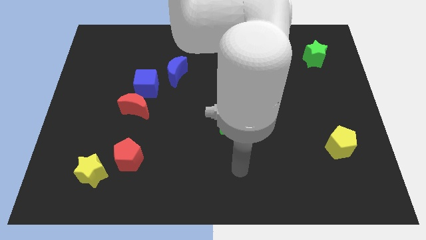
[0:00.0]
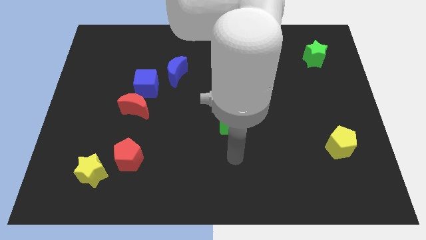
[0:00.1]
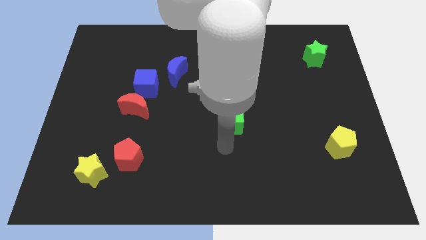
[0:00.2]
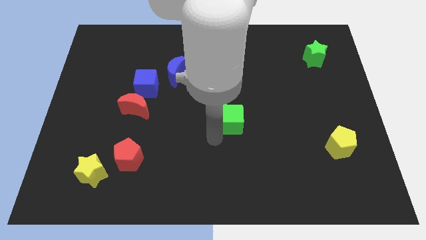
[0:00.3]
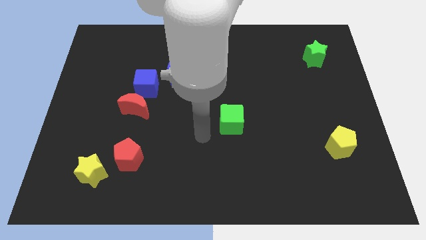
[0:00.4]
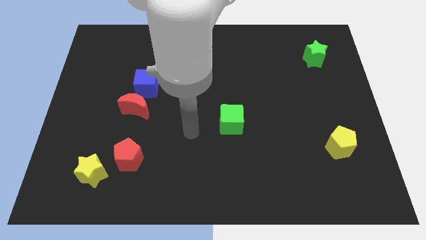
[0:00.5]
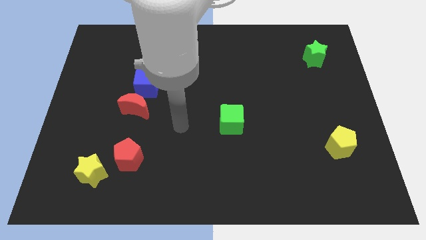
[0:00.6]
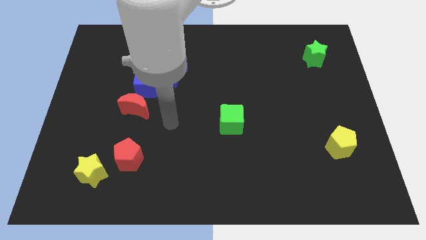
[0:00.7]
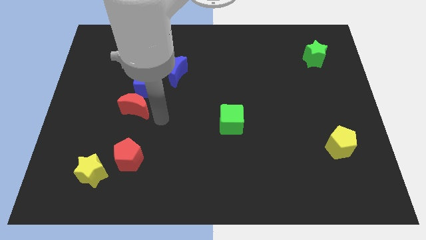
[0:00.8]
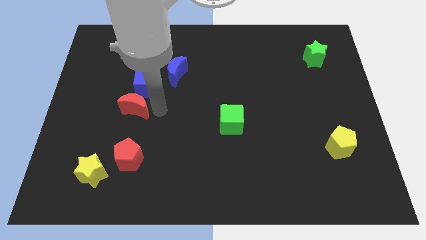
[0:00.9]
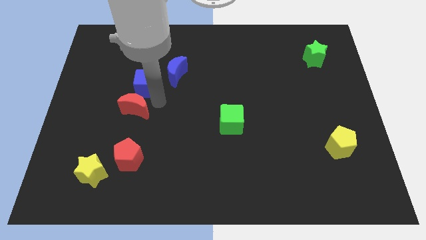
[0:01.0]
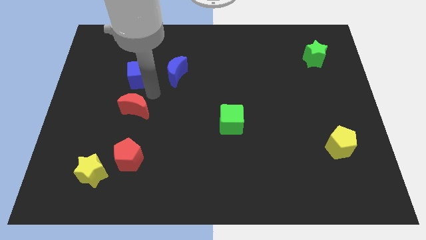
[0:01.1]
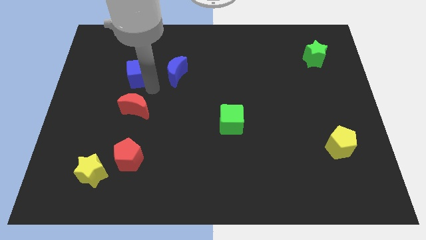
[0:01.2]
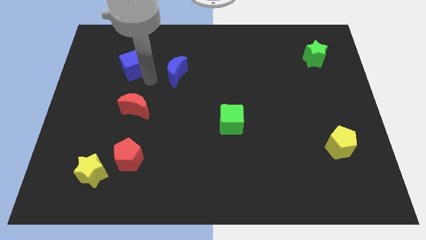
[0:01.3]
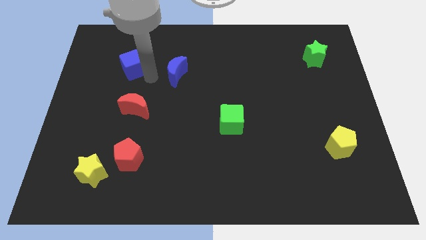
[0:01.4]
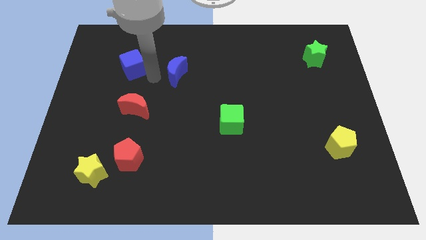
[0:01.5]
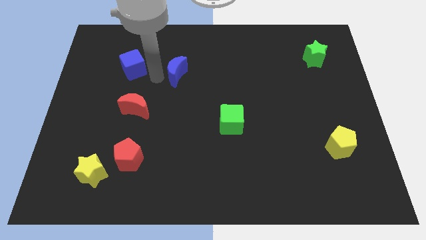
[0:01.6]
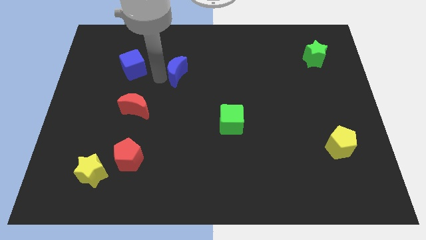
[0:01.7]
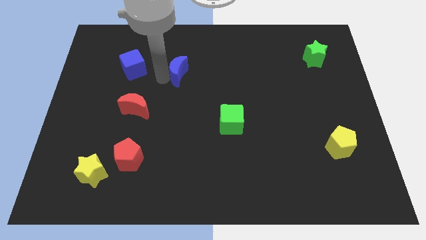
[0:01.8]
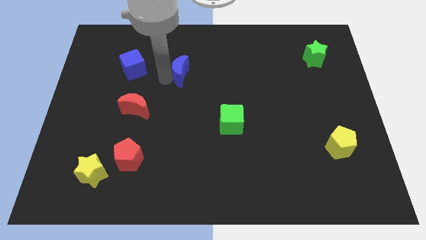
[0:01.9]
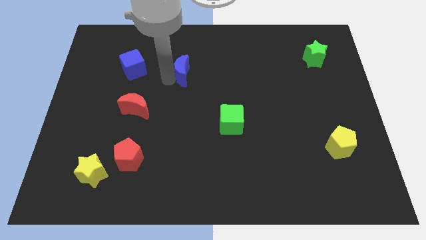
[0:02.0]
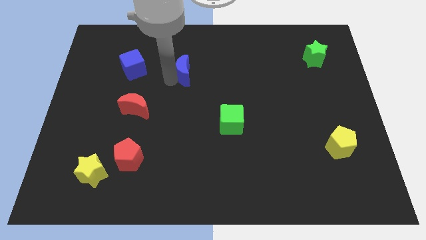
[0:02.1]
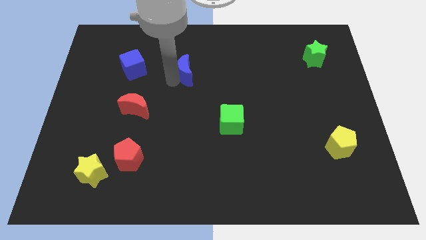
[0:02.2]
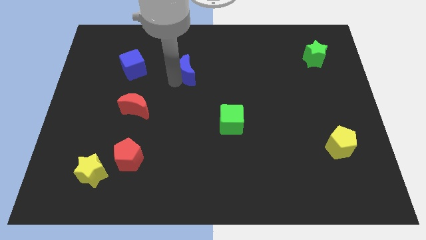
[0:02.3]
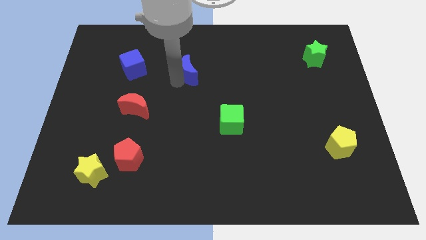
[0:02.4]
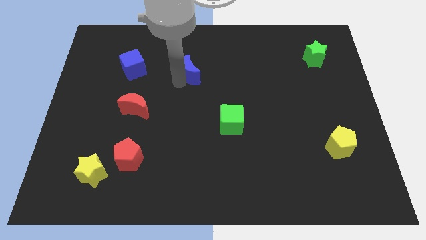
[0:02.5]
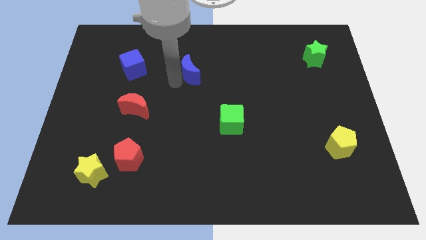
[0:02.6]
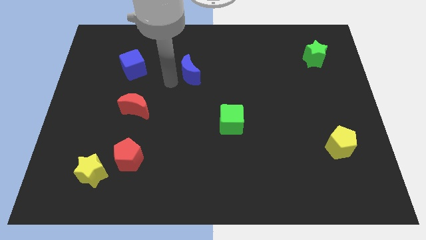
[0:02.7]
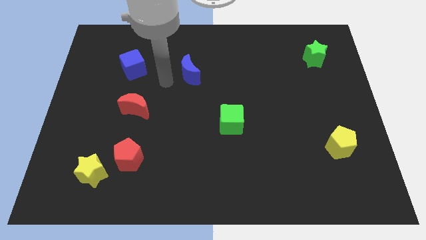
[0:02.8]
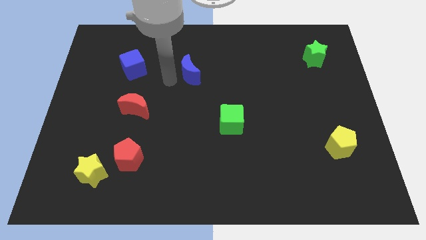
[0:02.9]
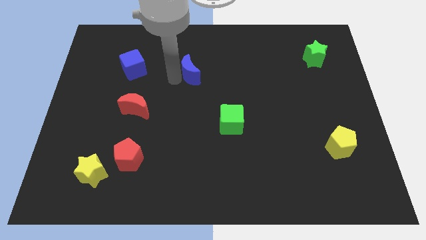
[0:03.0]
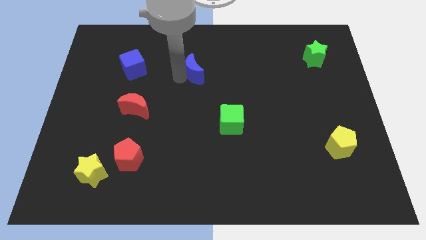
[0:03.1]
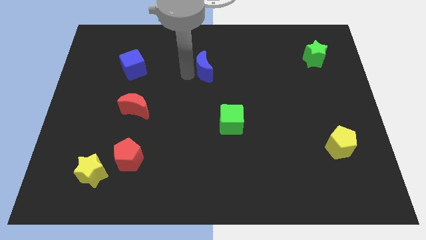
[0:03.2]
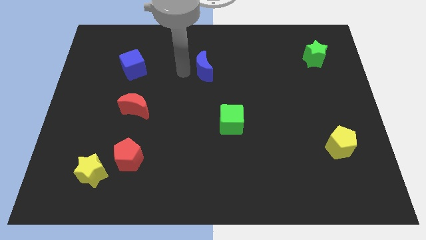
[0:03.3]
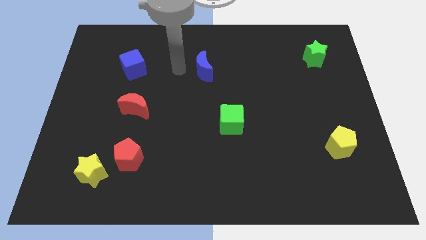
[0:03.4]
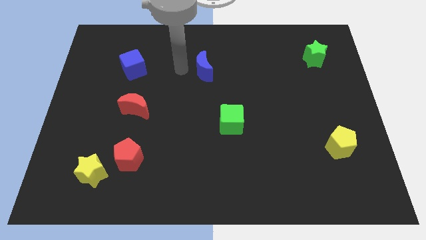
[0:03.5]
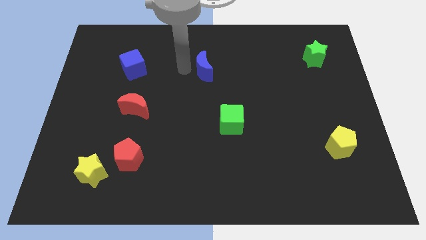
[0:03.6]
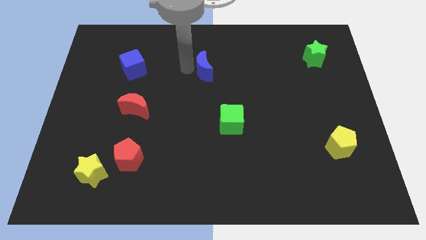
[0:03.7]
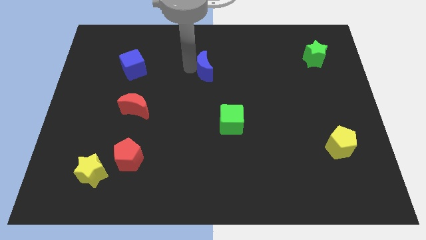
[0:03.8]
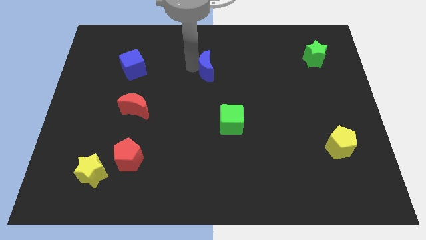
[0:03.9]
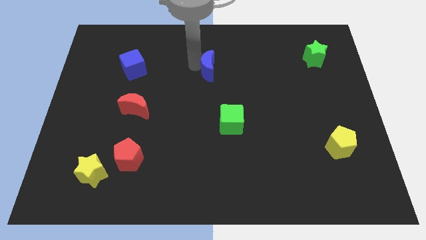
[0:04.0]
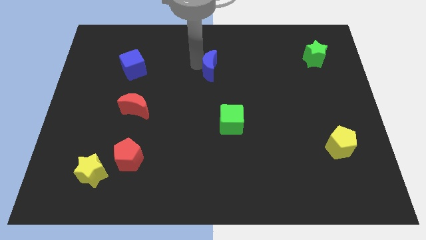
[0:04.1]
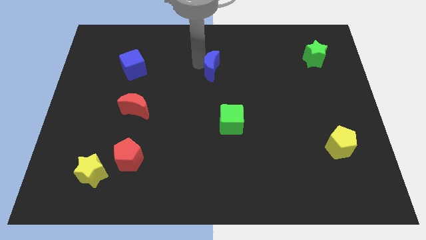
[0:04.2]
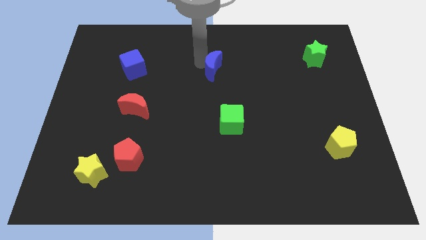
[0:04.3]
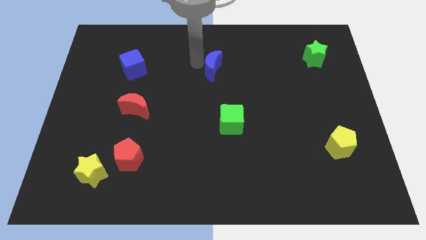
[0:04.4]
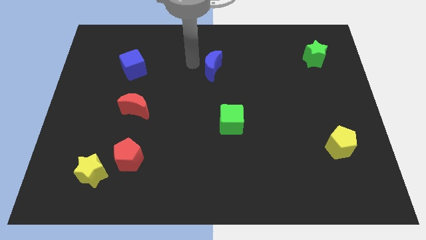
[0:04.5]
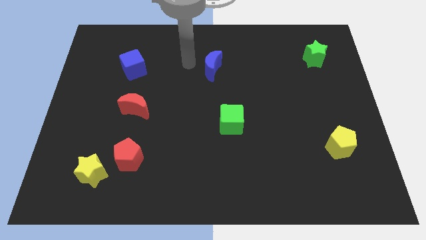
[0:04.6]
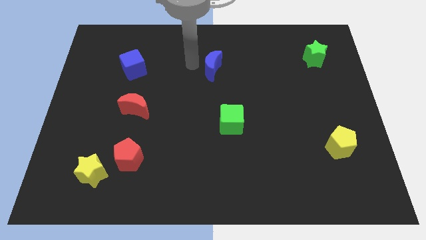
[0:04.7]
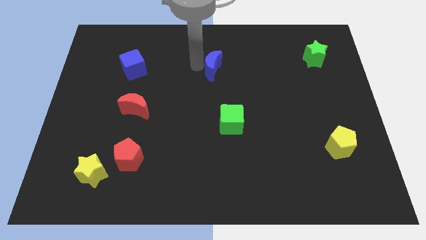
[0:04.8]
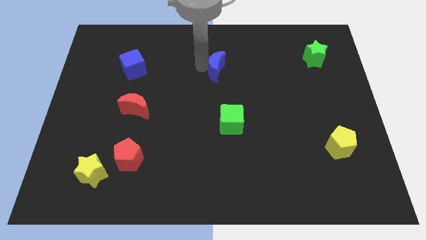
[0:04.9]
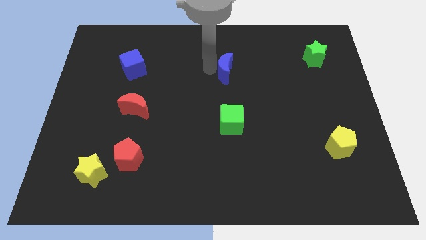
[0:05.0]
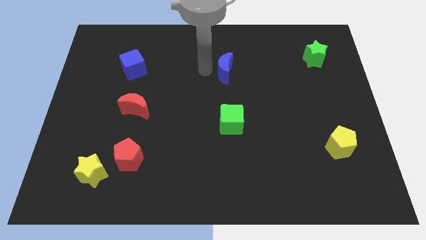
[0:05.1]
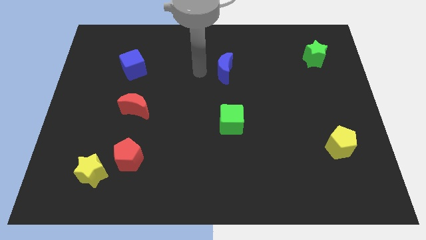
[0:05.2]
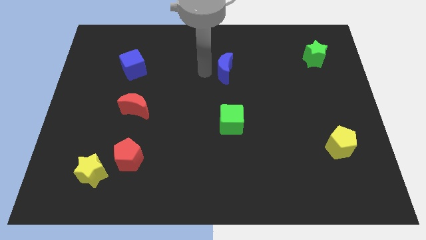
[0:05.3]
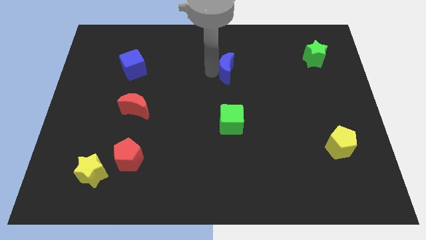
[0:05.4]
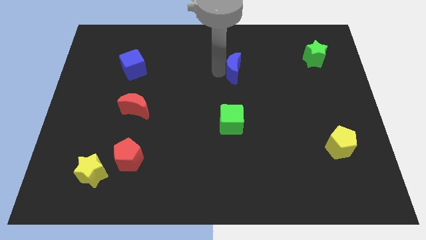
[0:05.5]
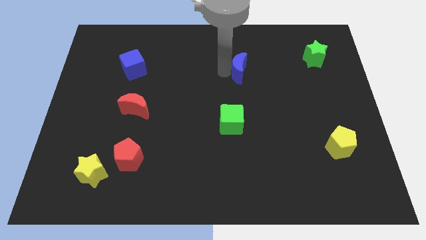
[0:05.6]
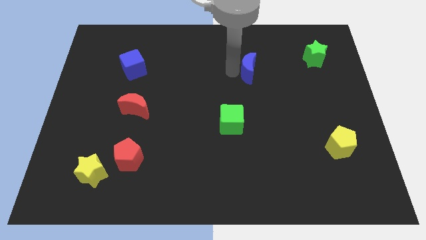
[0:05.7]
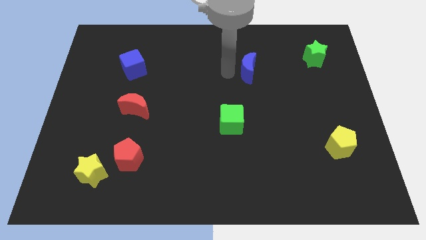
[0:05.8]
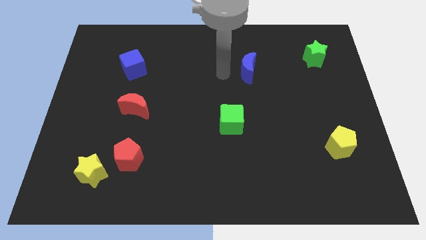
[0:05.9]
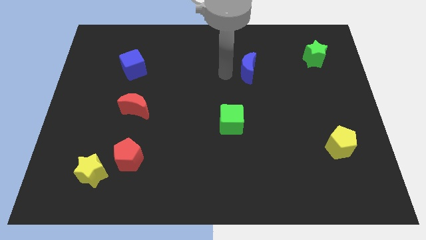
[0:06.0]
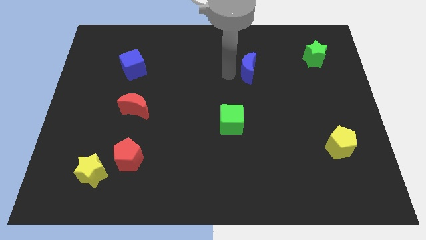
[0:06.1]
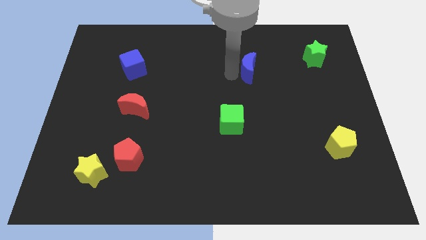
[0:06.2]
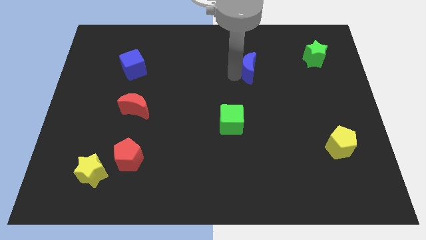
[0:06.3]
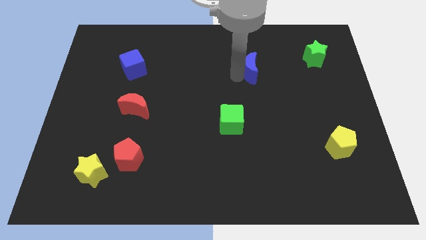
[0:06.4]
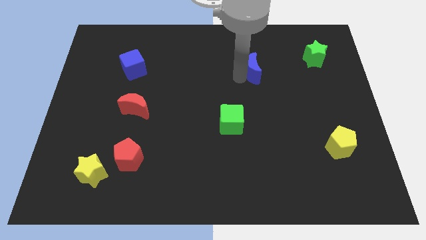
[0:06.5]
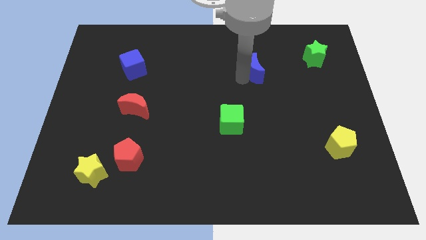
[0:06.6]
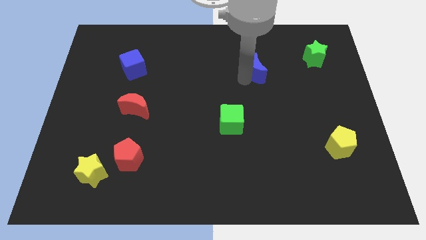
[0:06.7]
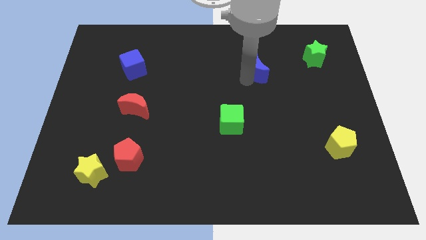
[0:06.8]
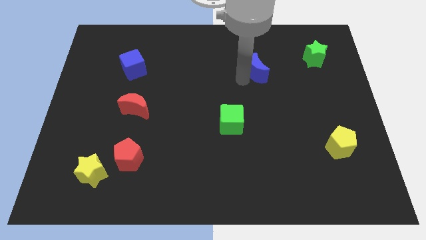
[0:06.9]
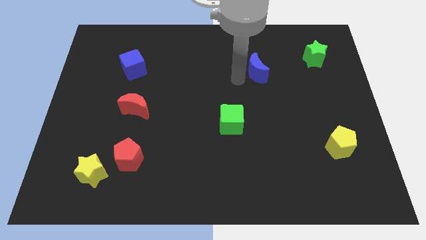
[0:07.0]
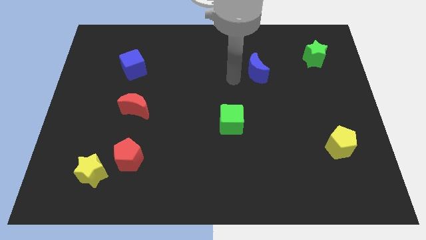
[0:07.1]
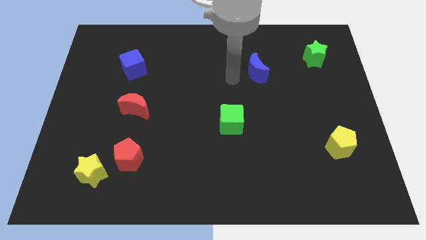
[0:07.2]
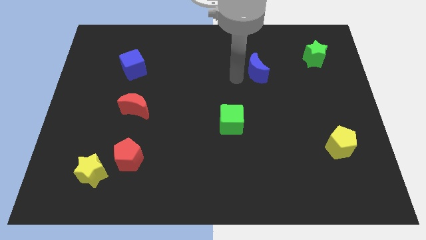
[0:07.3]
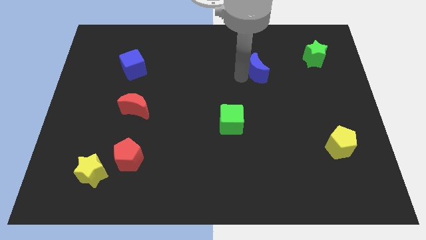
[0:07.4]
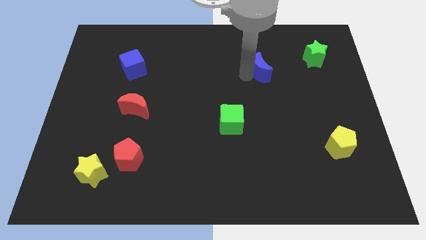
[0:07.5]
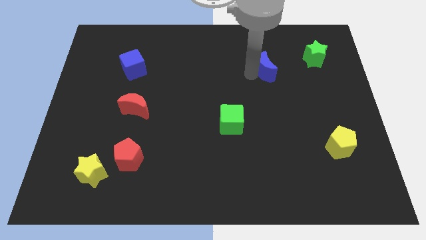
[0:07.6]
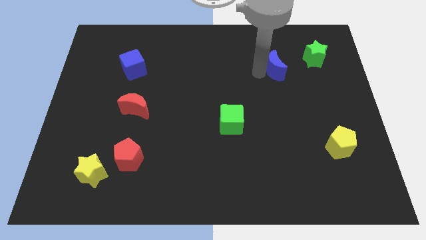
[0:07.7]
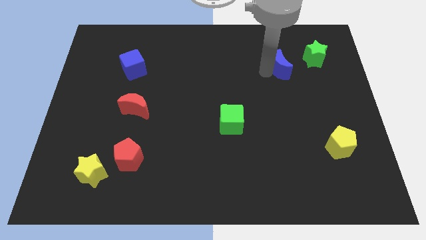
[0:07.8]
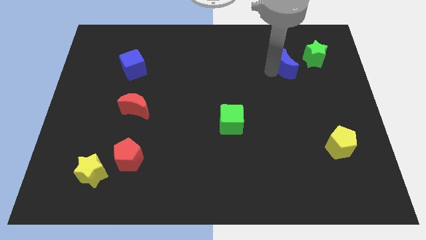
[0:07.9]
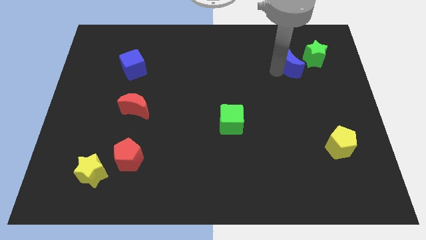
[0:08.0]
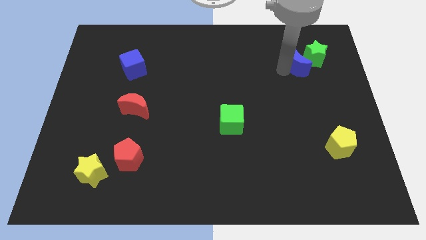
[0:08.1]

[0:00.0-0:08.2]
push the blue moon towards the green star
